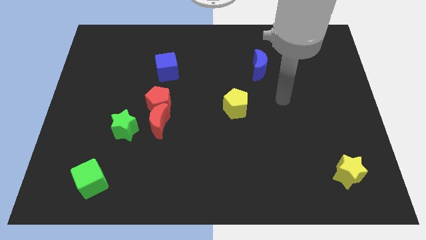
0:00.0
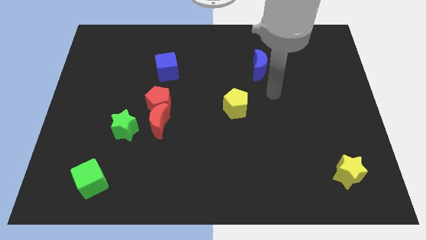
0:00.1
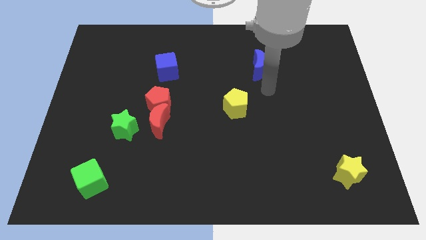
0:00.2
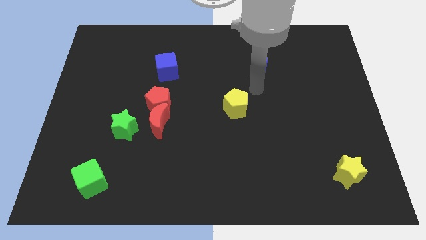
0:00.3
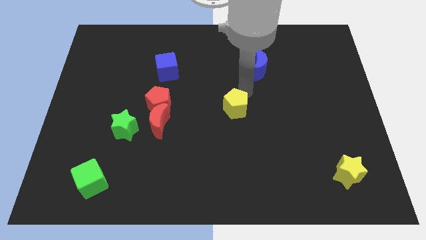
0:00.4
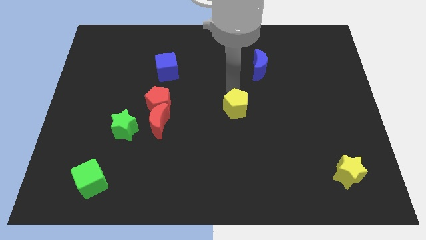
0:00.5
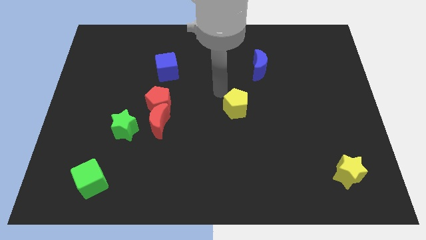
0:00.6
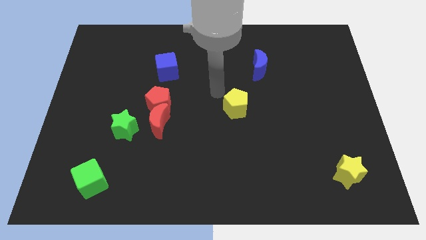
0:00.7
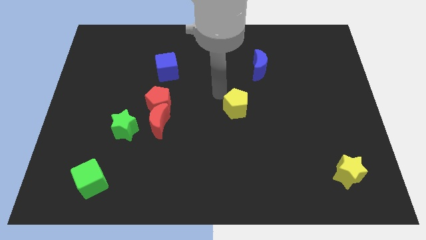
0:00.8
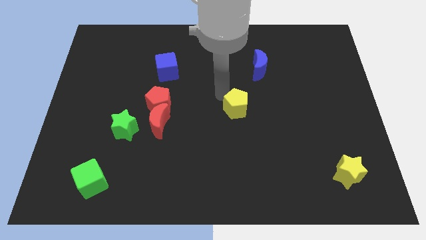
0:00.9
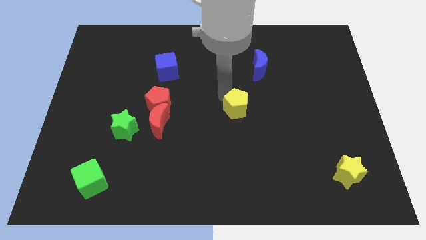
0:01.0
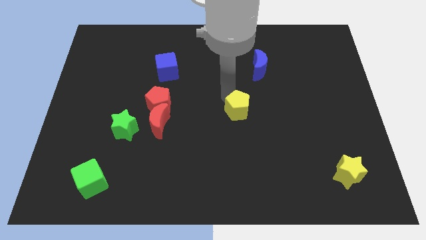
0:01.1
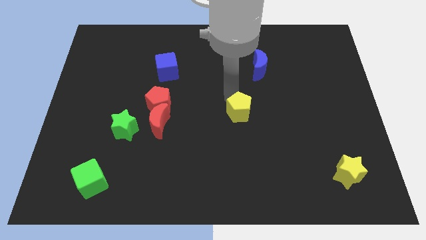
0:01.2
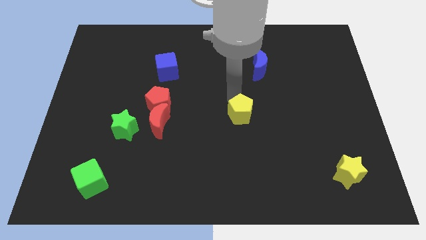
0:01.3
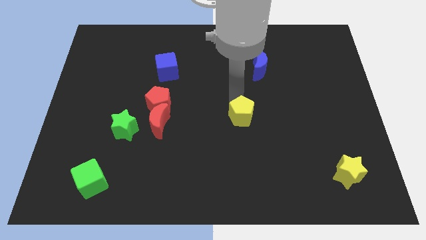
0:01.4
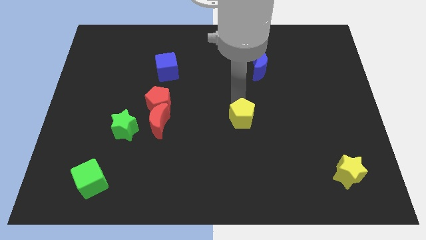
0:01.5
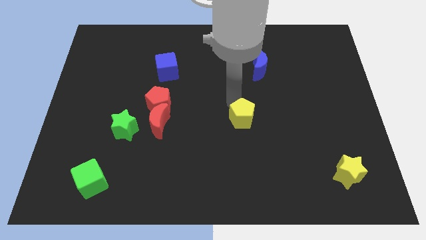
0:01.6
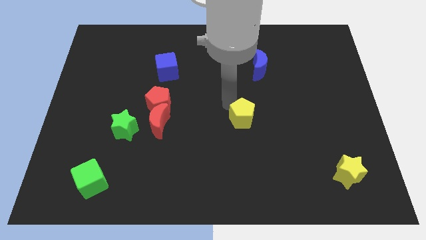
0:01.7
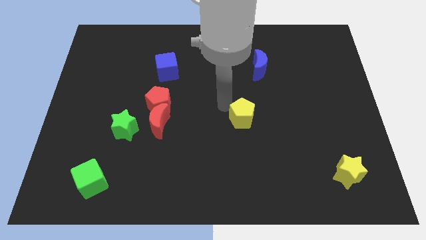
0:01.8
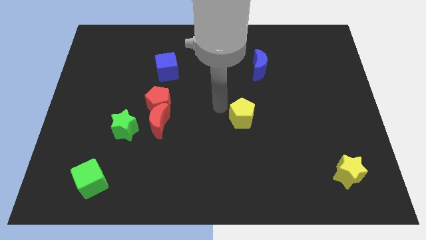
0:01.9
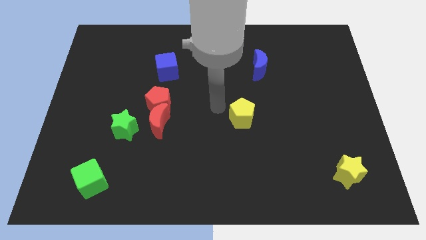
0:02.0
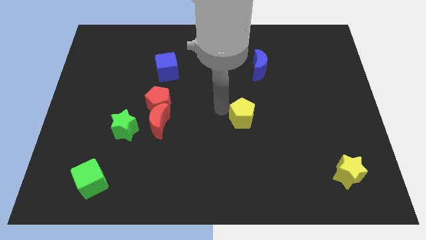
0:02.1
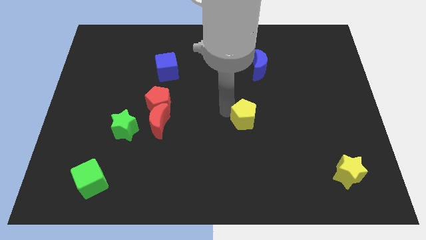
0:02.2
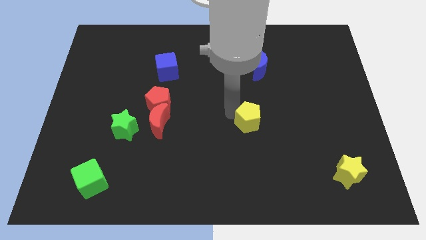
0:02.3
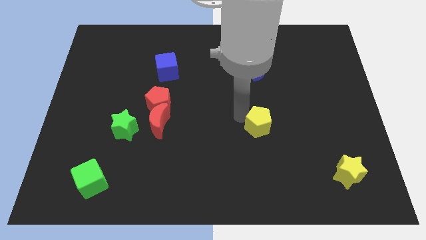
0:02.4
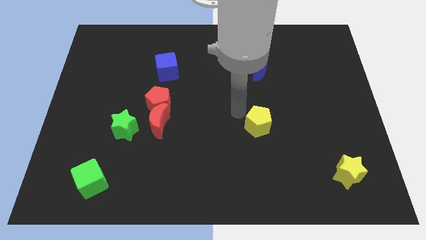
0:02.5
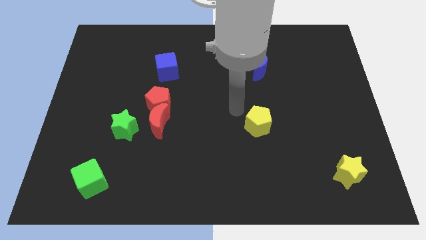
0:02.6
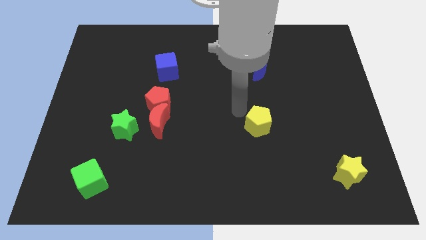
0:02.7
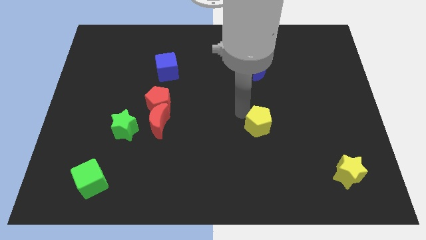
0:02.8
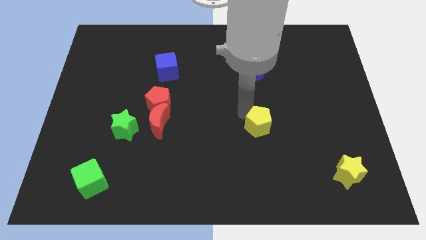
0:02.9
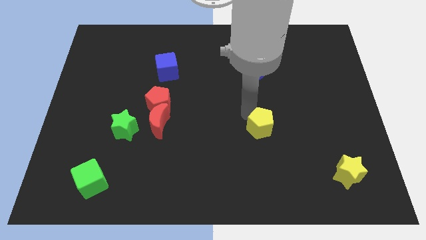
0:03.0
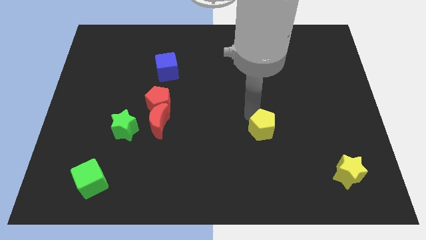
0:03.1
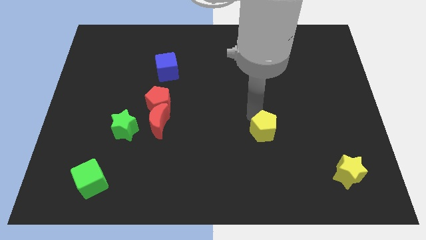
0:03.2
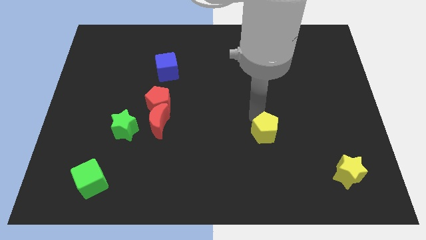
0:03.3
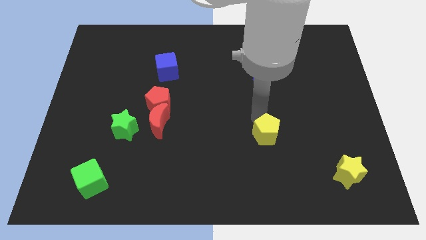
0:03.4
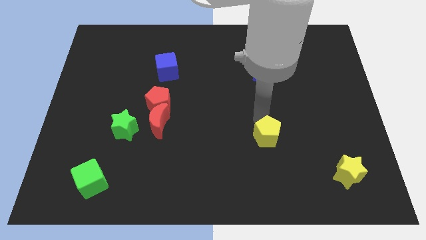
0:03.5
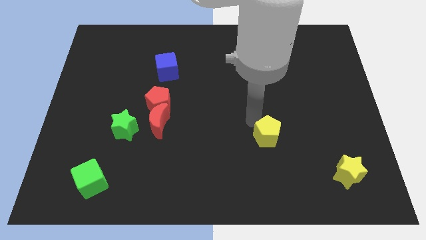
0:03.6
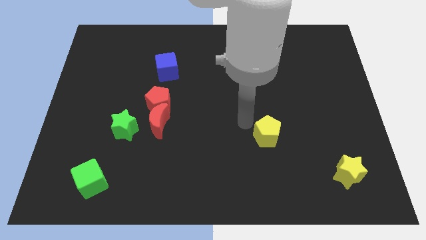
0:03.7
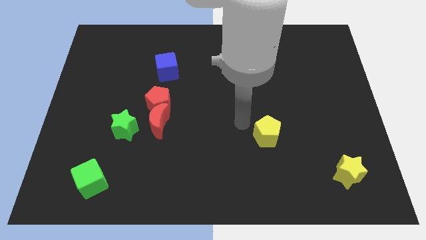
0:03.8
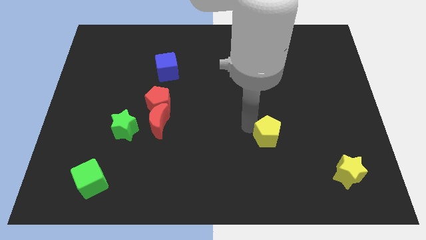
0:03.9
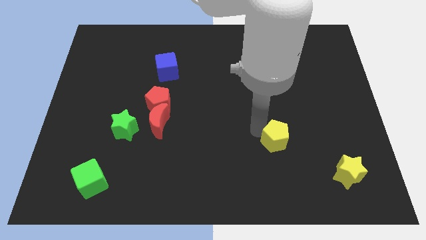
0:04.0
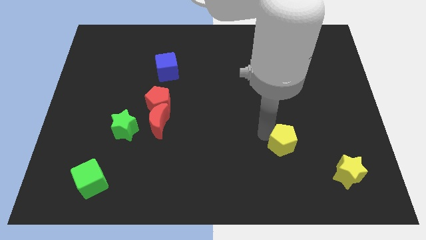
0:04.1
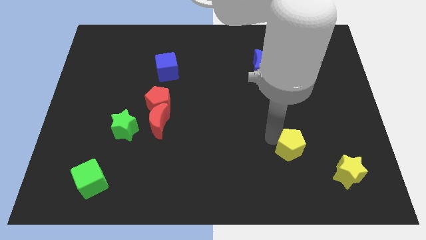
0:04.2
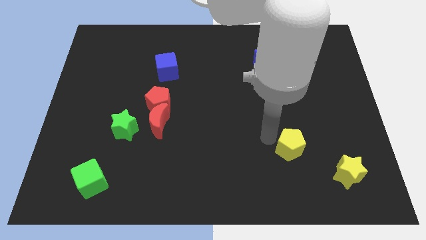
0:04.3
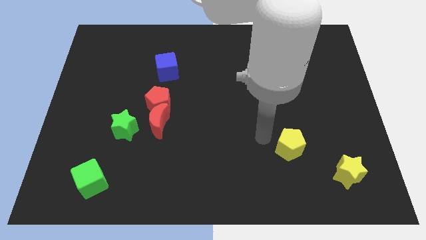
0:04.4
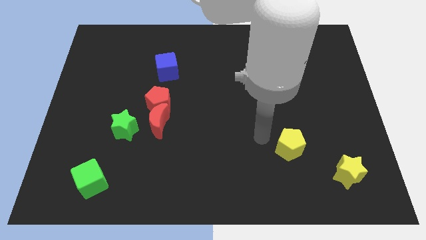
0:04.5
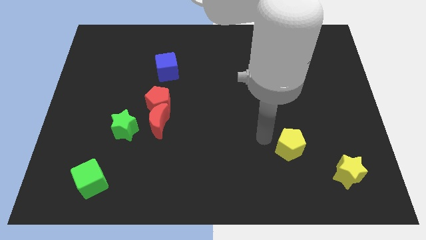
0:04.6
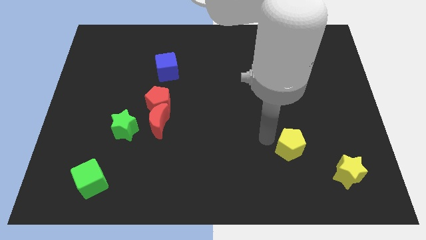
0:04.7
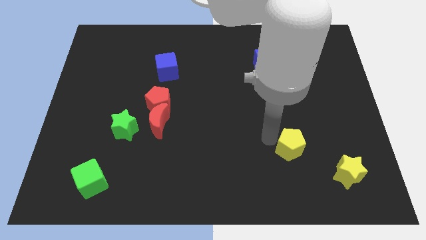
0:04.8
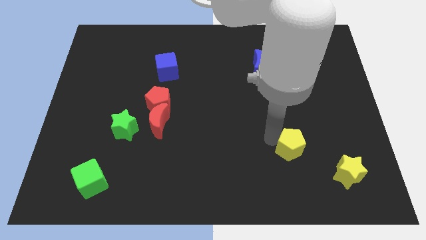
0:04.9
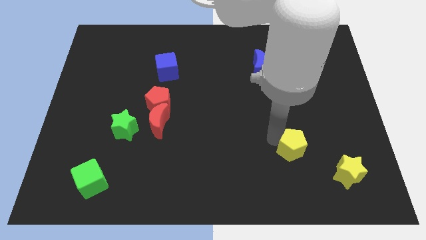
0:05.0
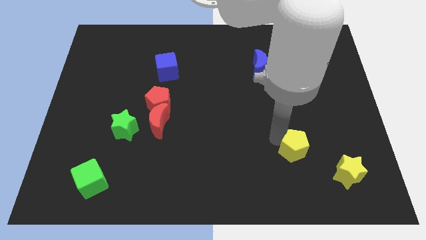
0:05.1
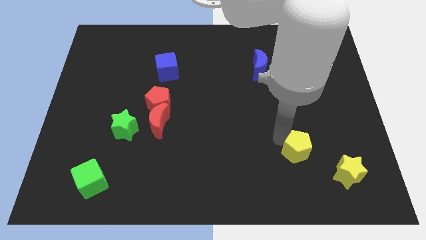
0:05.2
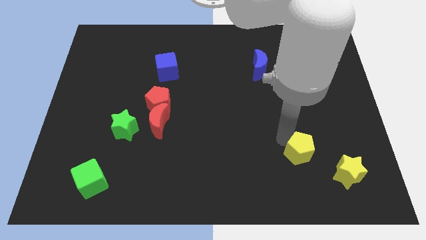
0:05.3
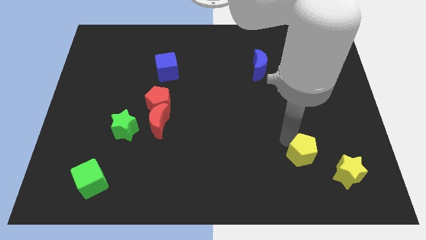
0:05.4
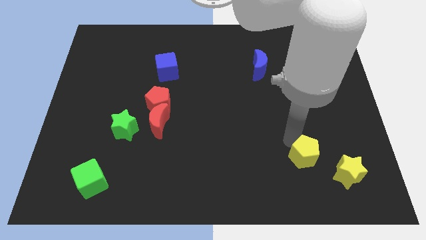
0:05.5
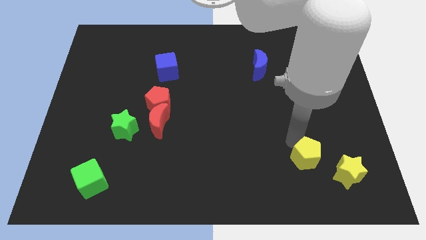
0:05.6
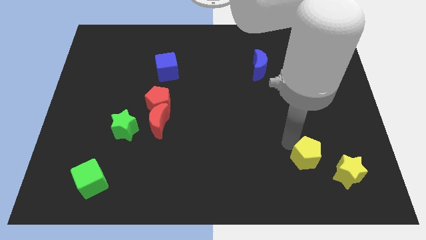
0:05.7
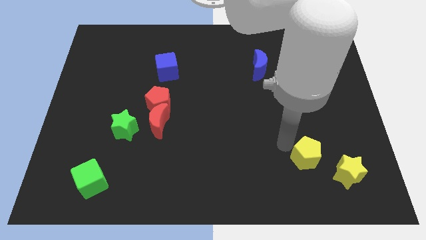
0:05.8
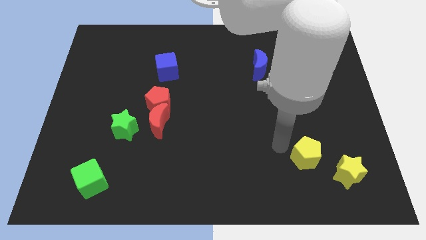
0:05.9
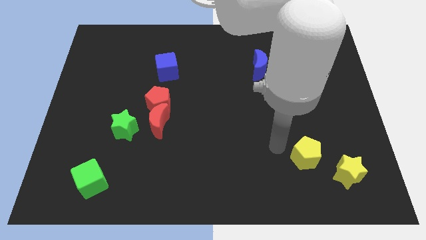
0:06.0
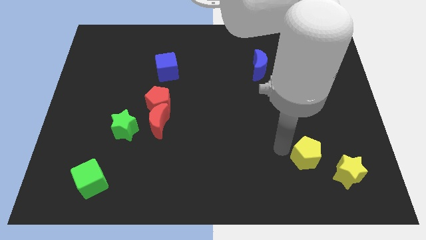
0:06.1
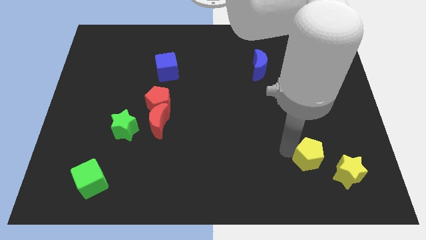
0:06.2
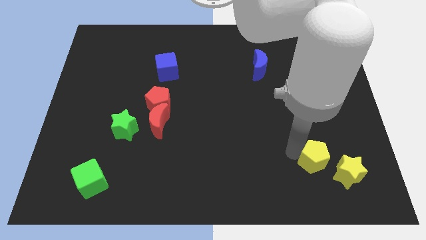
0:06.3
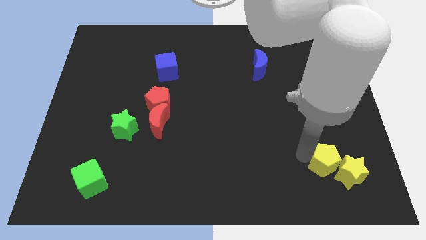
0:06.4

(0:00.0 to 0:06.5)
put the yellow pentagon next to the yellow star

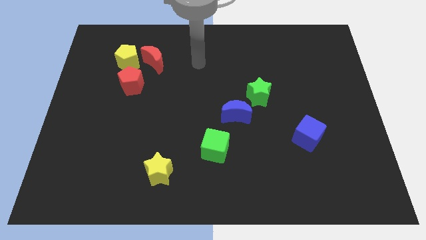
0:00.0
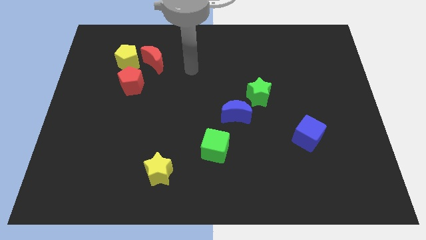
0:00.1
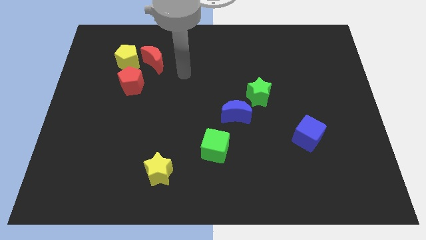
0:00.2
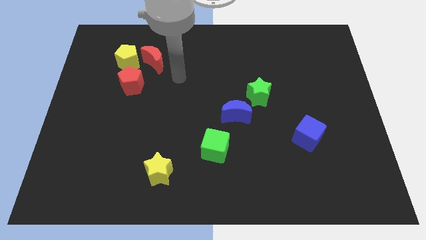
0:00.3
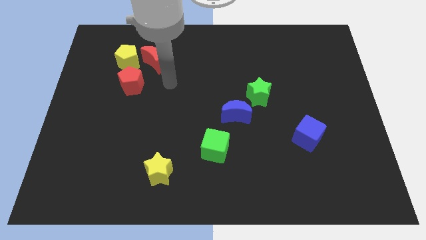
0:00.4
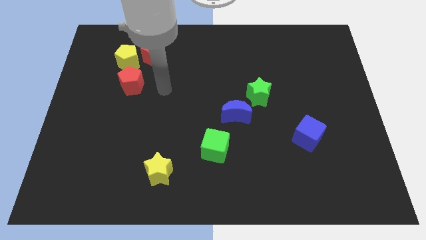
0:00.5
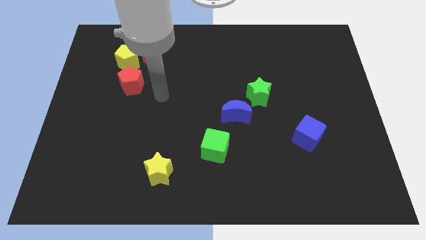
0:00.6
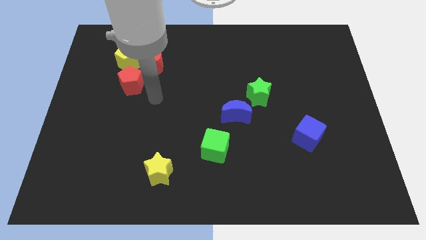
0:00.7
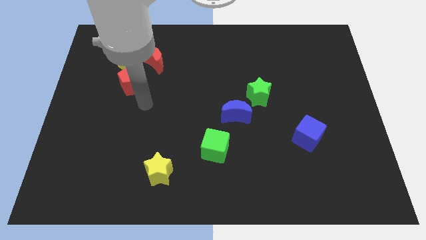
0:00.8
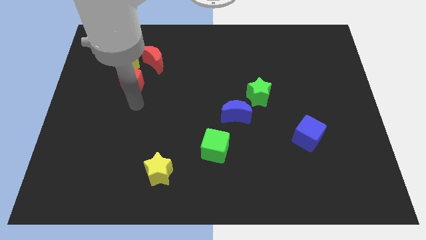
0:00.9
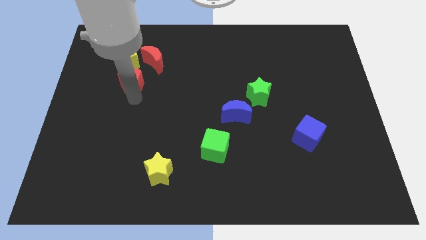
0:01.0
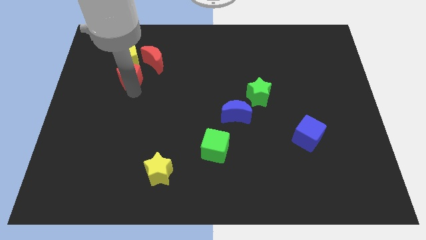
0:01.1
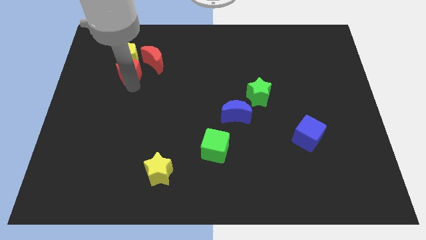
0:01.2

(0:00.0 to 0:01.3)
move the red pentagon next to the yellow pentagon
